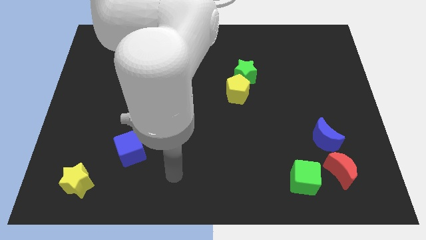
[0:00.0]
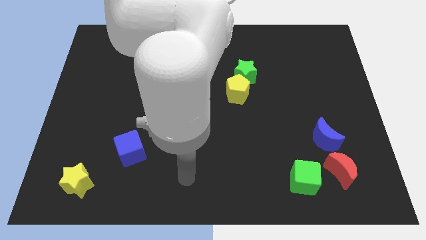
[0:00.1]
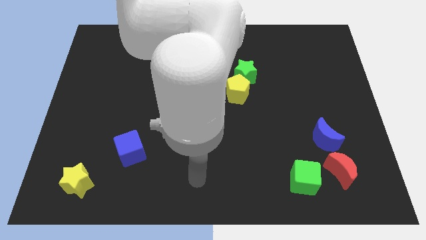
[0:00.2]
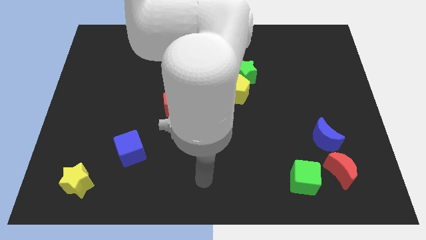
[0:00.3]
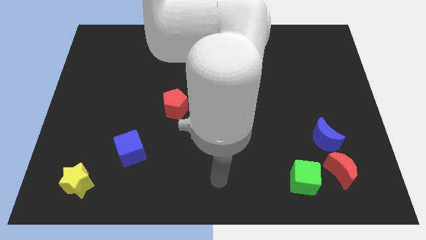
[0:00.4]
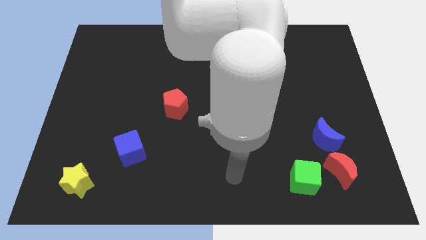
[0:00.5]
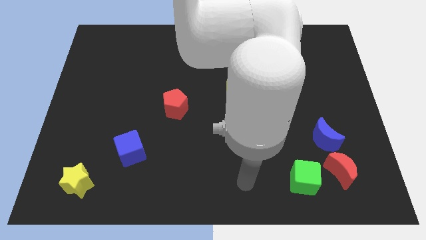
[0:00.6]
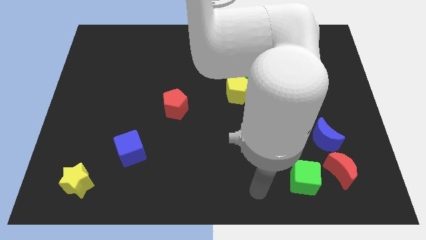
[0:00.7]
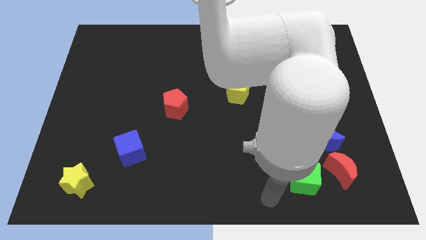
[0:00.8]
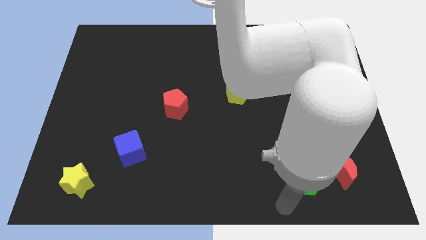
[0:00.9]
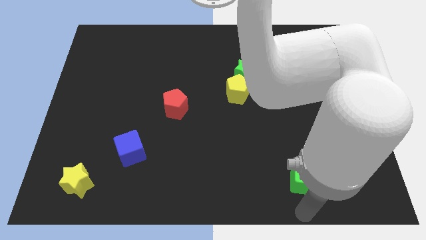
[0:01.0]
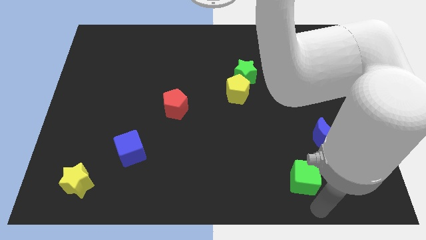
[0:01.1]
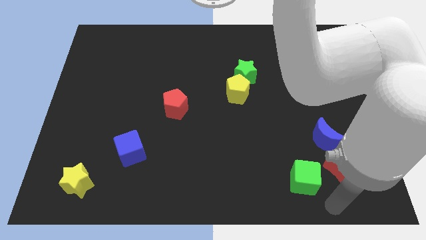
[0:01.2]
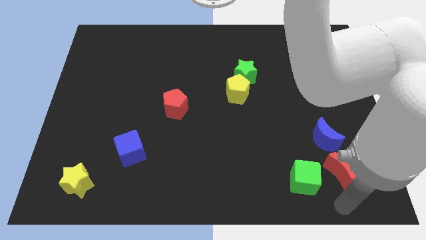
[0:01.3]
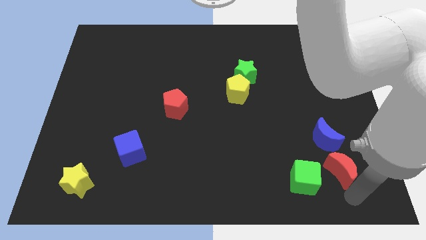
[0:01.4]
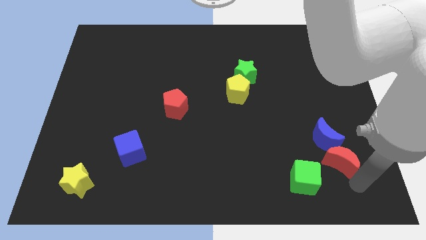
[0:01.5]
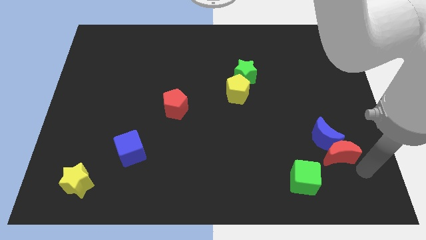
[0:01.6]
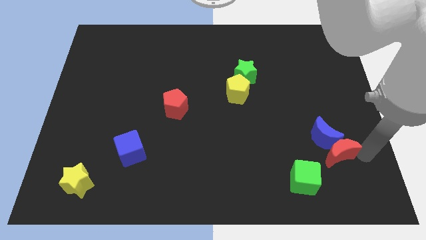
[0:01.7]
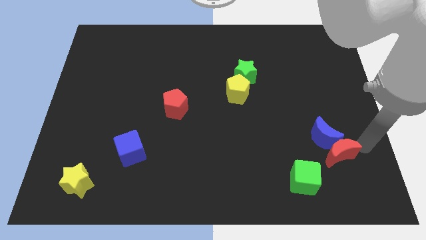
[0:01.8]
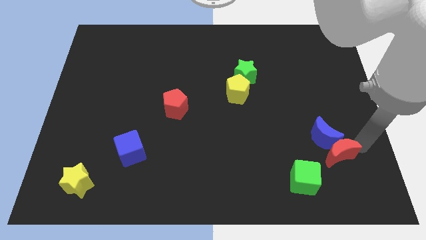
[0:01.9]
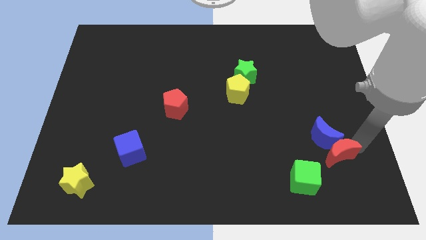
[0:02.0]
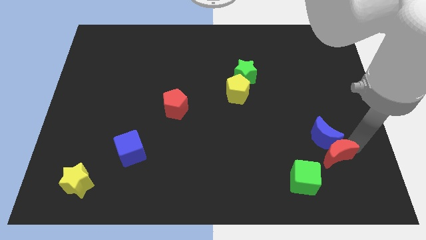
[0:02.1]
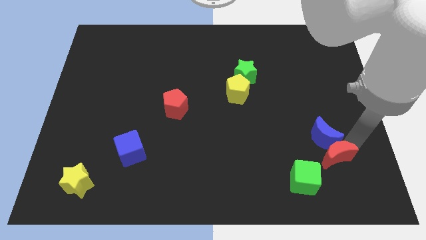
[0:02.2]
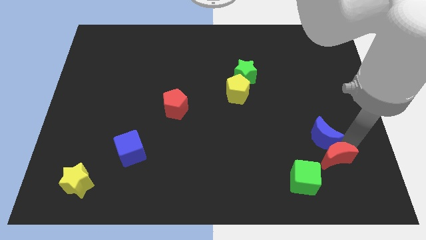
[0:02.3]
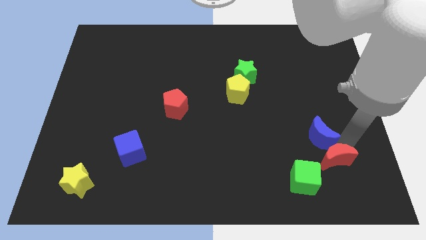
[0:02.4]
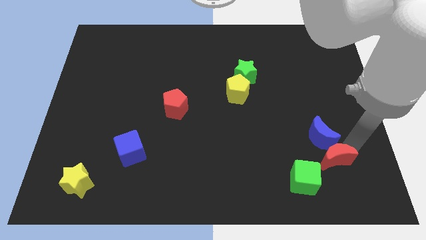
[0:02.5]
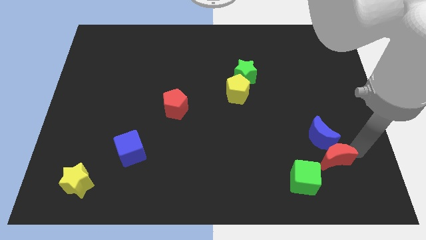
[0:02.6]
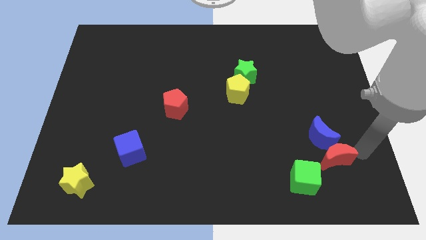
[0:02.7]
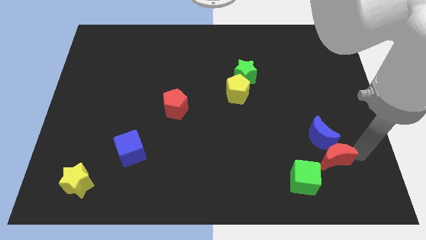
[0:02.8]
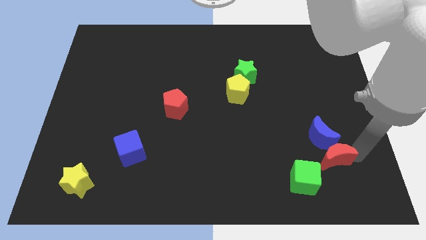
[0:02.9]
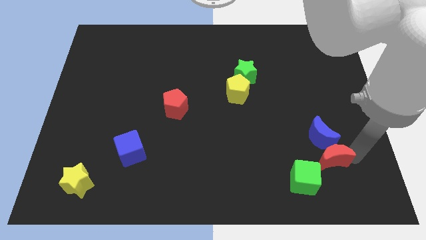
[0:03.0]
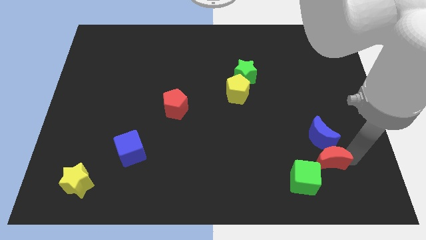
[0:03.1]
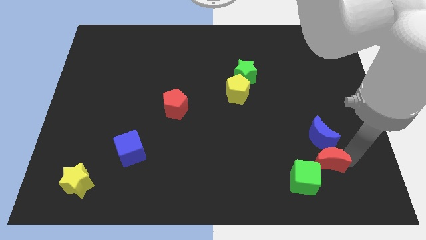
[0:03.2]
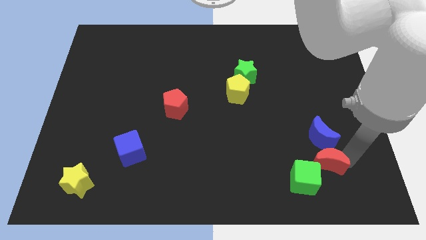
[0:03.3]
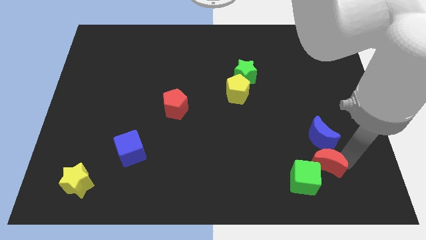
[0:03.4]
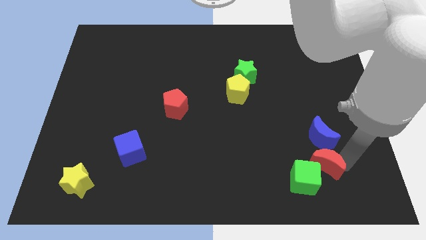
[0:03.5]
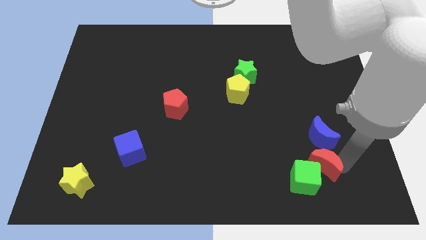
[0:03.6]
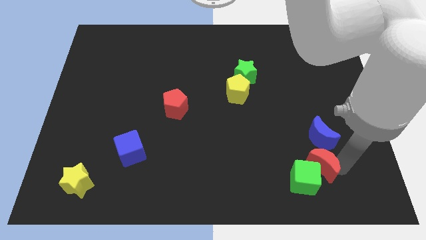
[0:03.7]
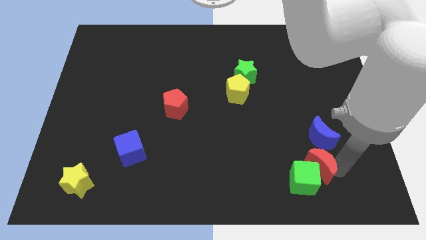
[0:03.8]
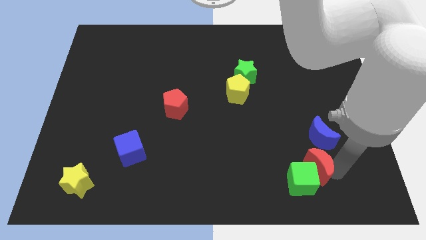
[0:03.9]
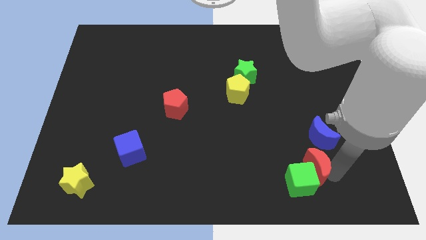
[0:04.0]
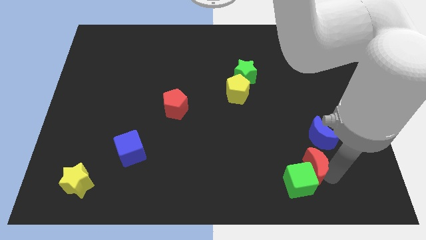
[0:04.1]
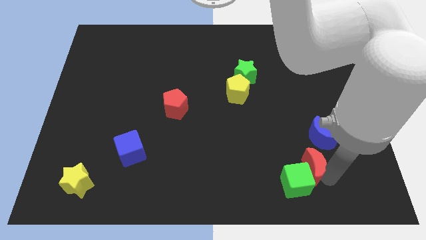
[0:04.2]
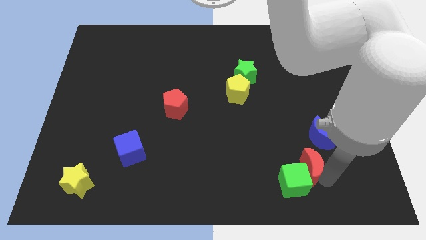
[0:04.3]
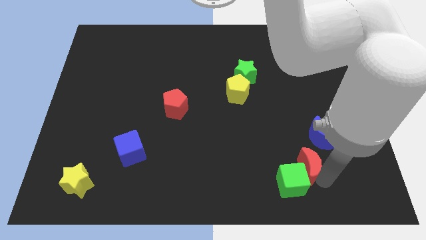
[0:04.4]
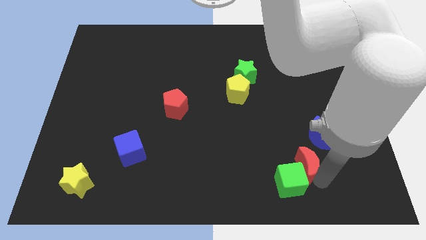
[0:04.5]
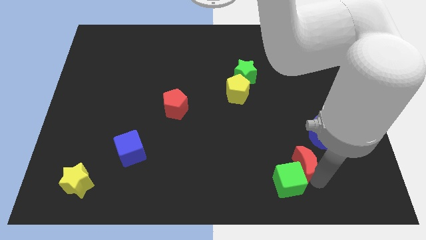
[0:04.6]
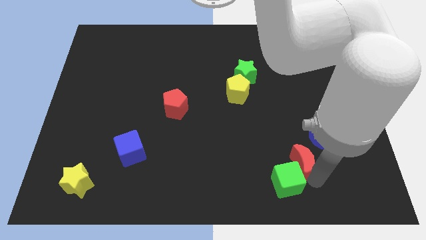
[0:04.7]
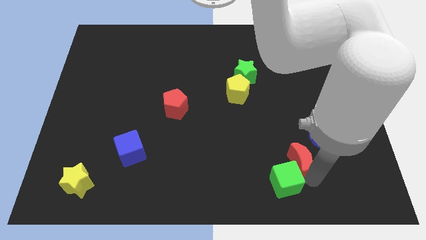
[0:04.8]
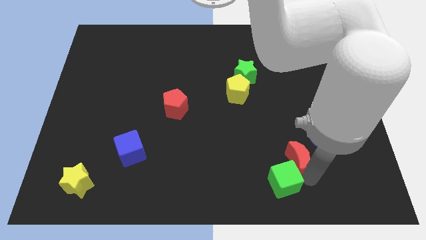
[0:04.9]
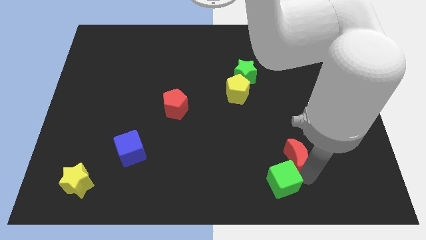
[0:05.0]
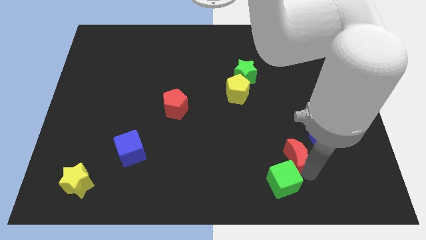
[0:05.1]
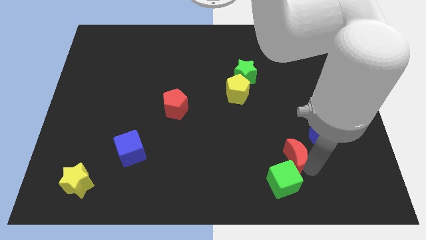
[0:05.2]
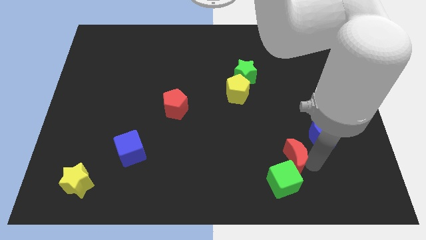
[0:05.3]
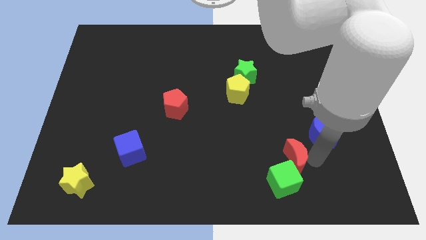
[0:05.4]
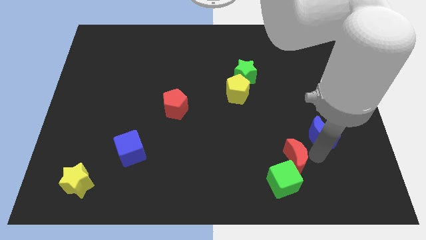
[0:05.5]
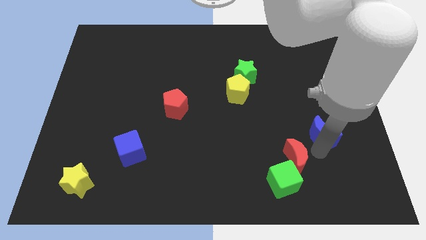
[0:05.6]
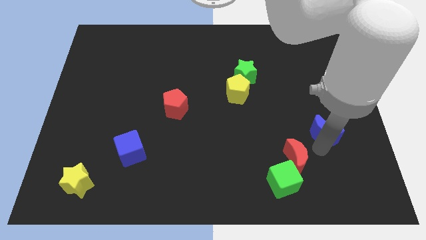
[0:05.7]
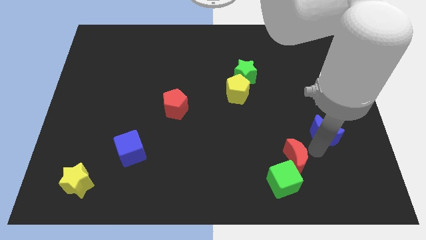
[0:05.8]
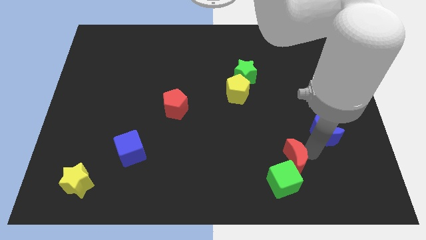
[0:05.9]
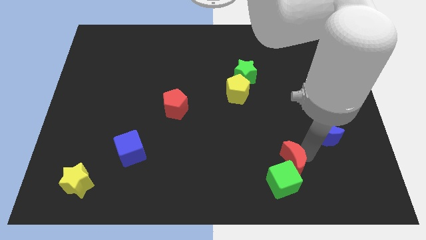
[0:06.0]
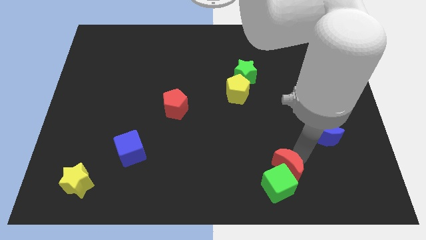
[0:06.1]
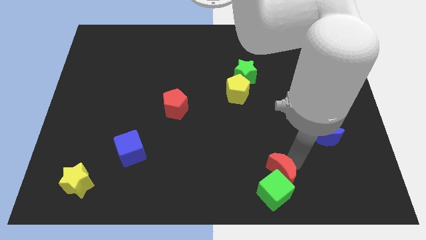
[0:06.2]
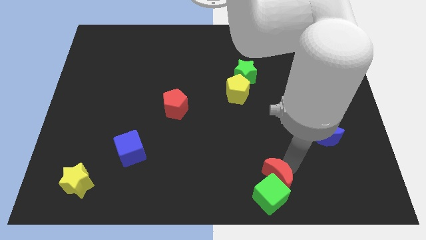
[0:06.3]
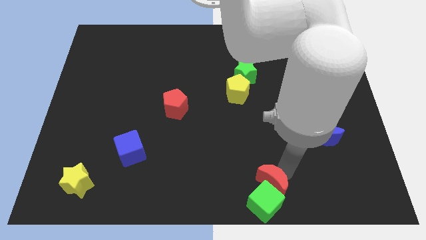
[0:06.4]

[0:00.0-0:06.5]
put the red moon to the bottom
